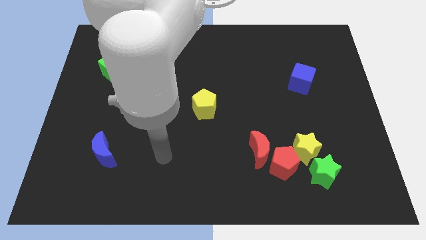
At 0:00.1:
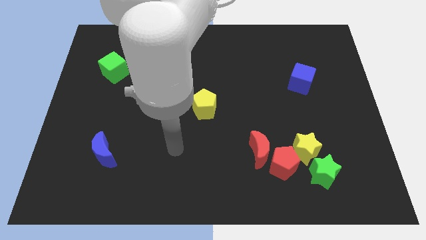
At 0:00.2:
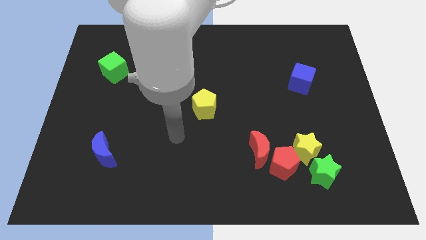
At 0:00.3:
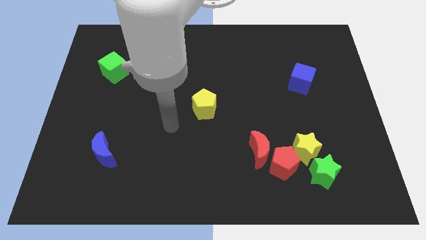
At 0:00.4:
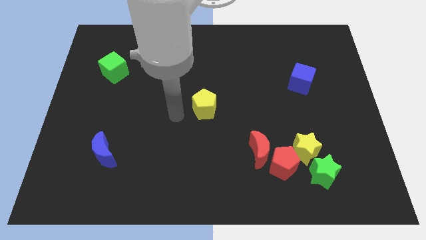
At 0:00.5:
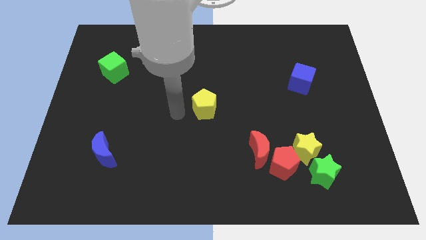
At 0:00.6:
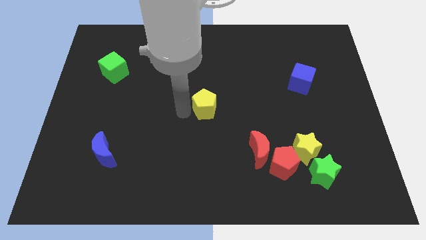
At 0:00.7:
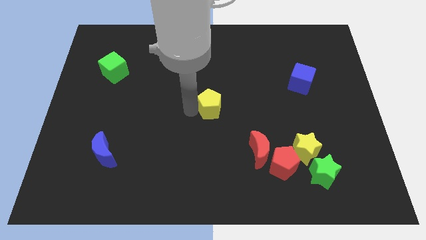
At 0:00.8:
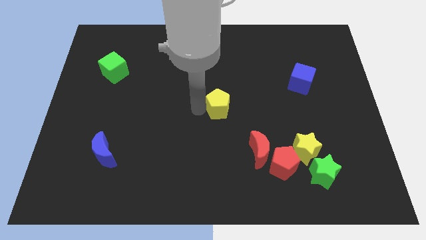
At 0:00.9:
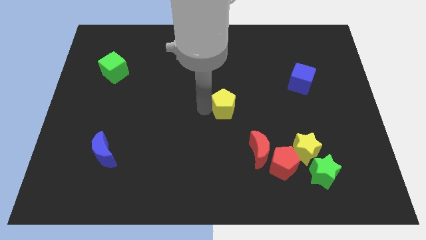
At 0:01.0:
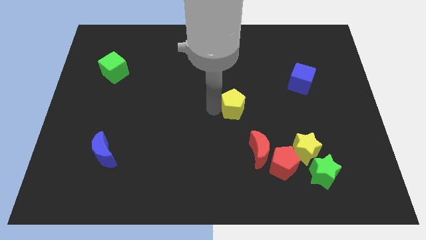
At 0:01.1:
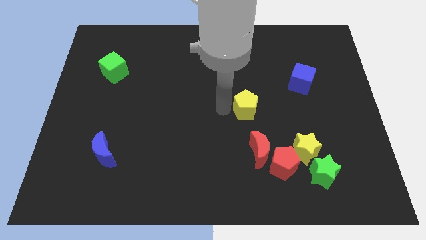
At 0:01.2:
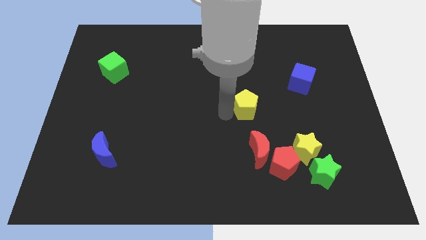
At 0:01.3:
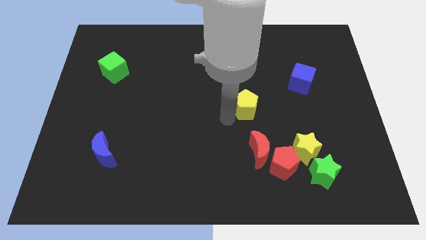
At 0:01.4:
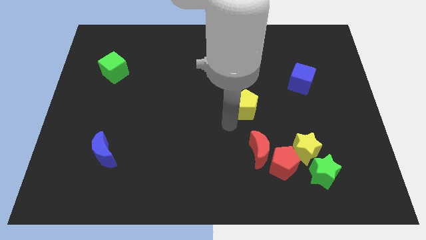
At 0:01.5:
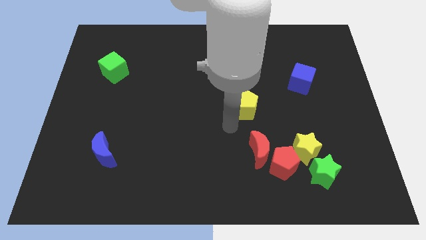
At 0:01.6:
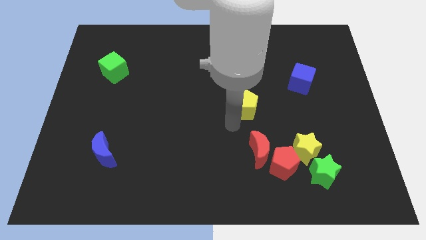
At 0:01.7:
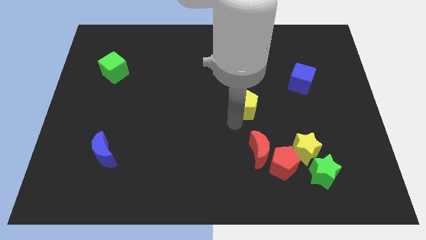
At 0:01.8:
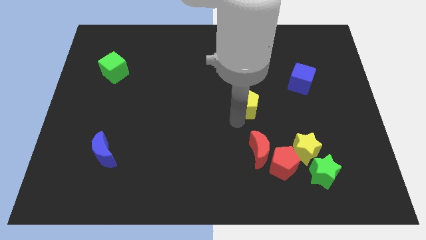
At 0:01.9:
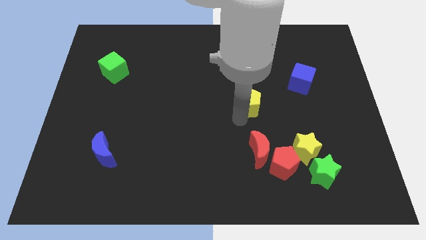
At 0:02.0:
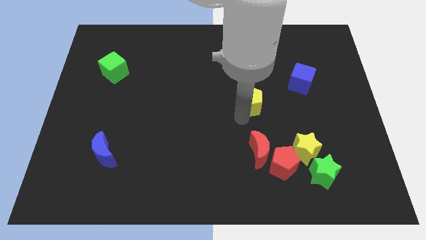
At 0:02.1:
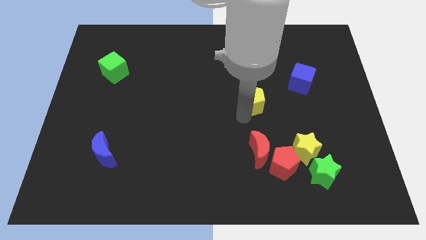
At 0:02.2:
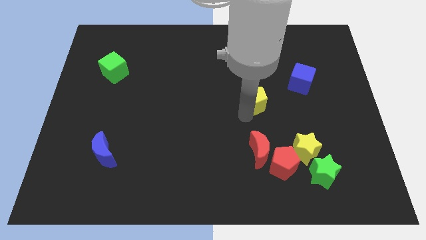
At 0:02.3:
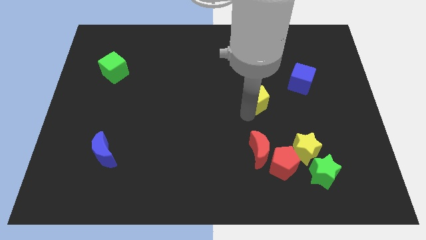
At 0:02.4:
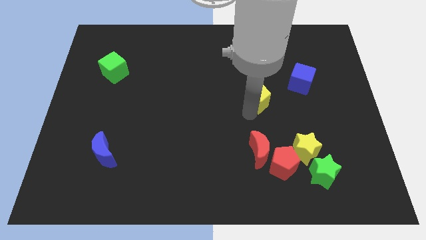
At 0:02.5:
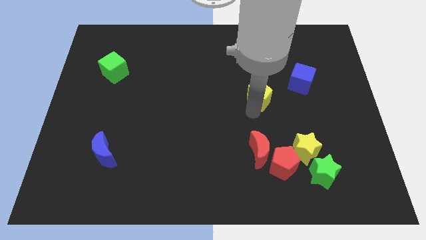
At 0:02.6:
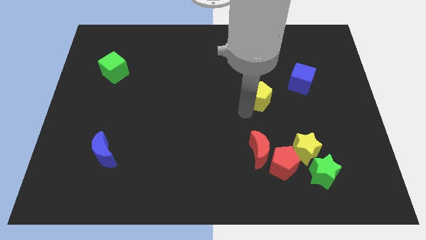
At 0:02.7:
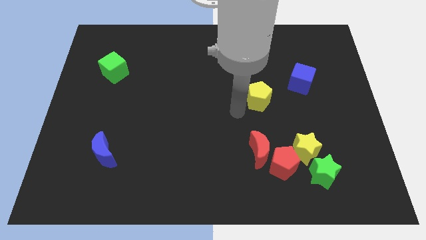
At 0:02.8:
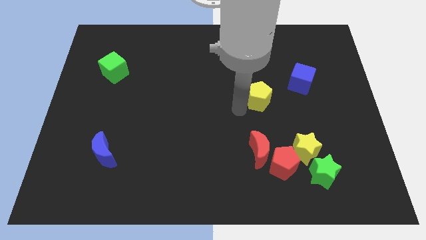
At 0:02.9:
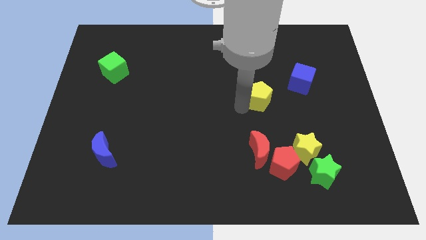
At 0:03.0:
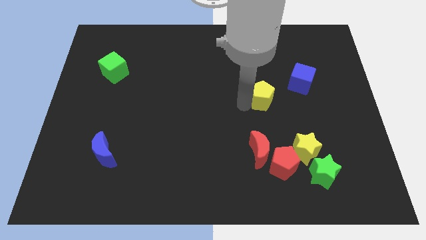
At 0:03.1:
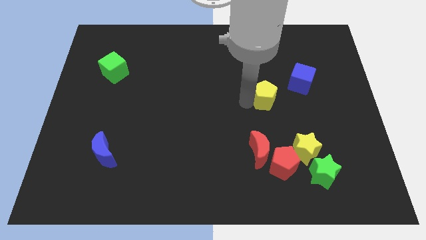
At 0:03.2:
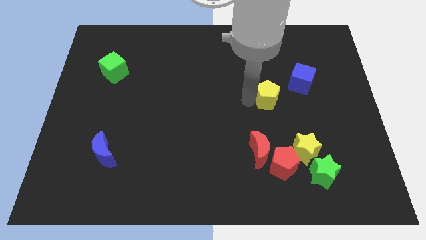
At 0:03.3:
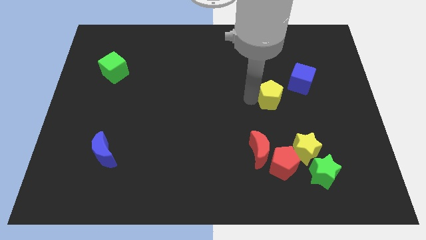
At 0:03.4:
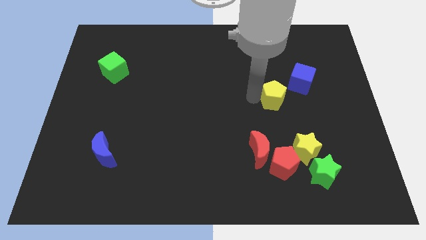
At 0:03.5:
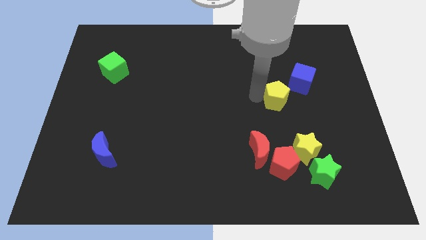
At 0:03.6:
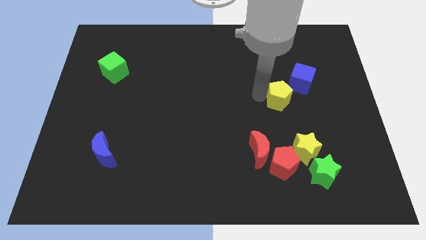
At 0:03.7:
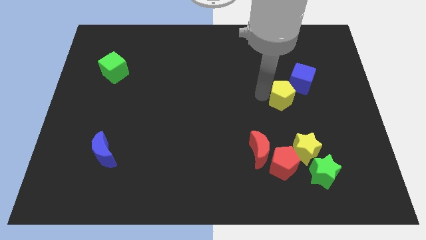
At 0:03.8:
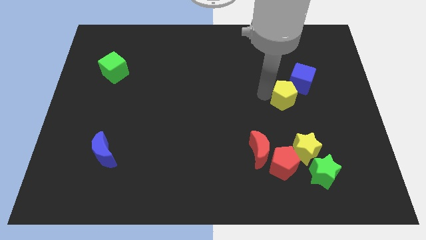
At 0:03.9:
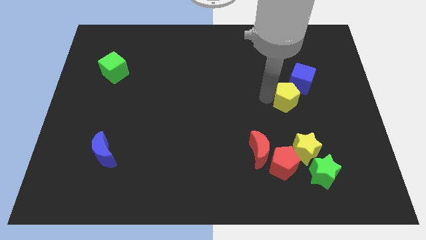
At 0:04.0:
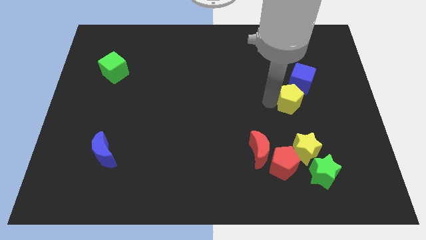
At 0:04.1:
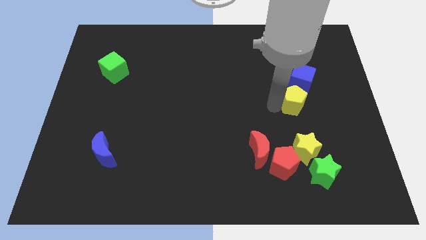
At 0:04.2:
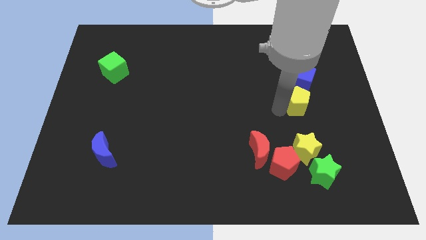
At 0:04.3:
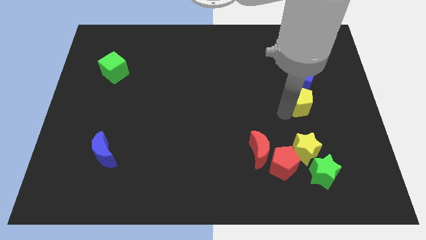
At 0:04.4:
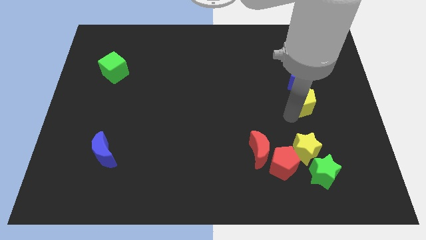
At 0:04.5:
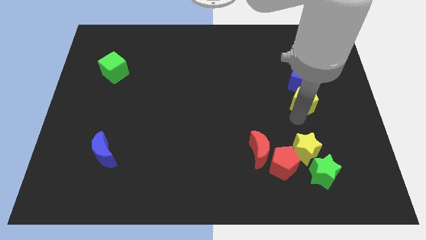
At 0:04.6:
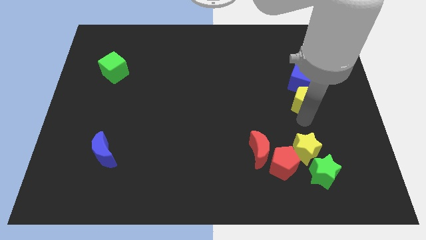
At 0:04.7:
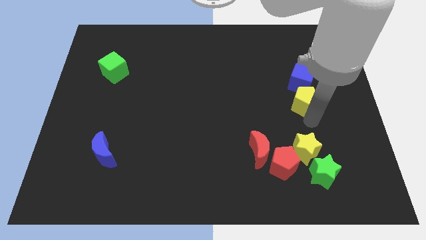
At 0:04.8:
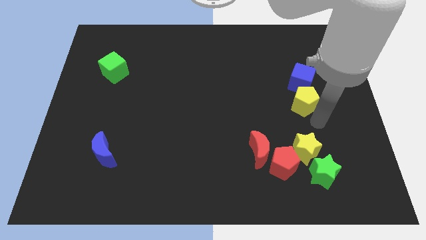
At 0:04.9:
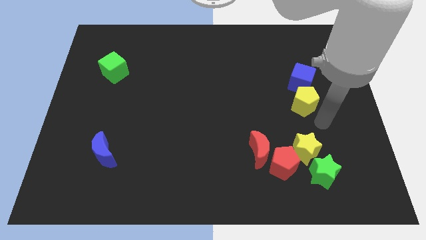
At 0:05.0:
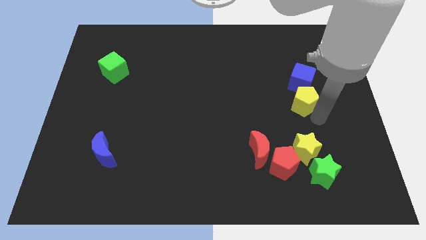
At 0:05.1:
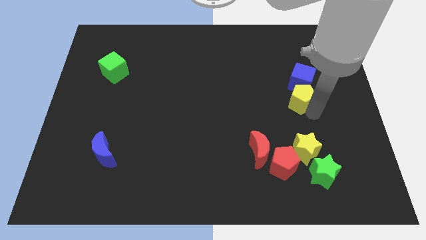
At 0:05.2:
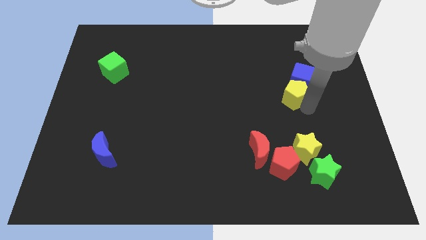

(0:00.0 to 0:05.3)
slide the yellow pentagon to the blue cube

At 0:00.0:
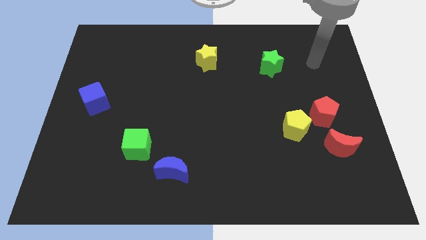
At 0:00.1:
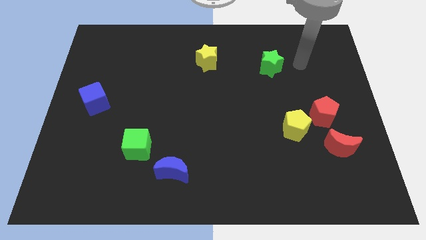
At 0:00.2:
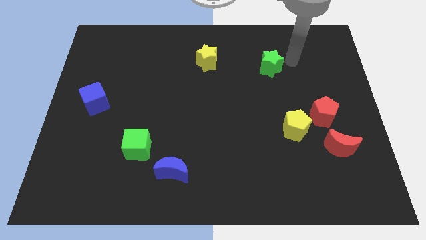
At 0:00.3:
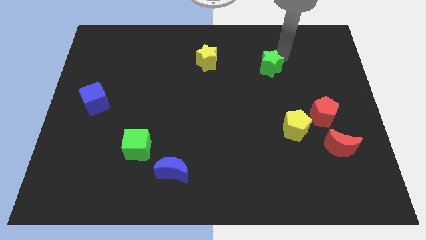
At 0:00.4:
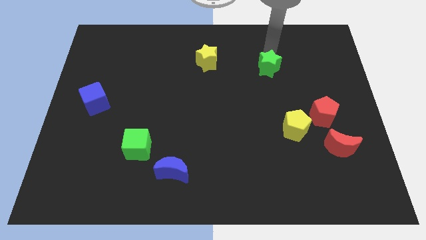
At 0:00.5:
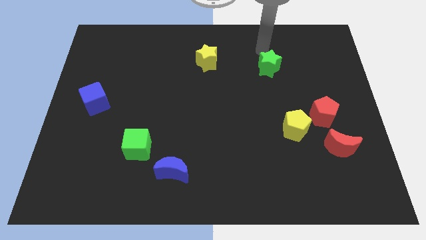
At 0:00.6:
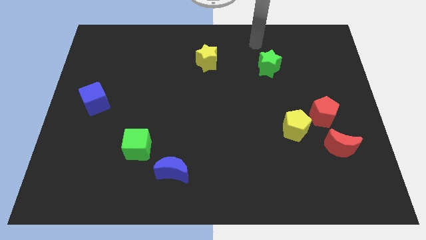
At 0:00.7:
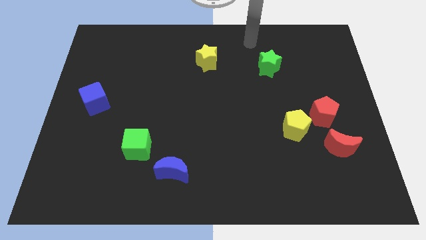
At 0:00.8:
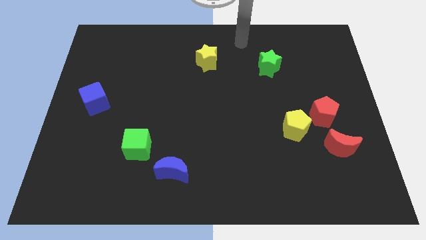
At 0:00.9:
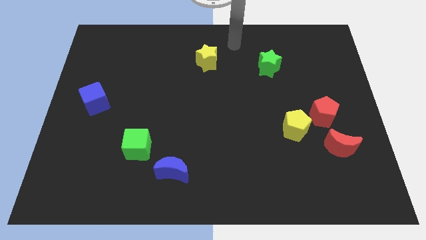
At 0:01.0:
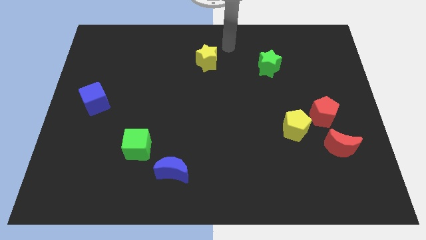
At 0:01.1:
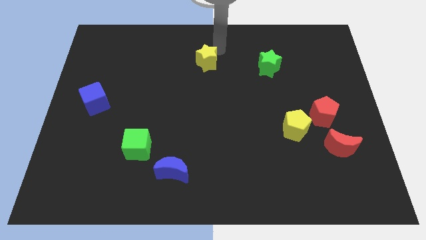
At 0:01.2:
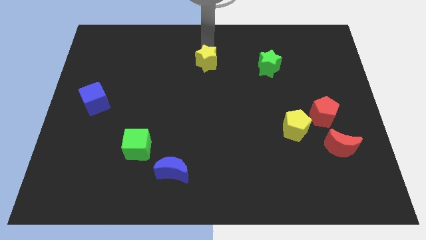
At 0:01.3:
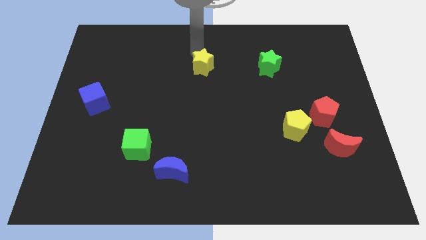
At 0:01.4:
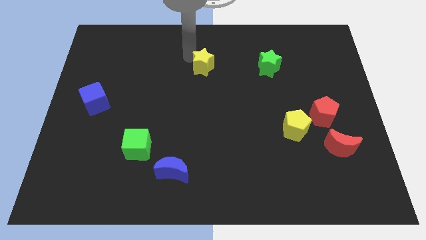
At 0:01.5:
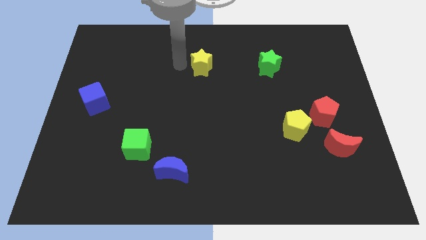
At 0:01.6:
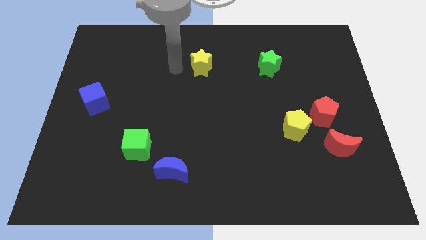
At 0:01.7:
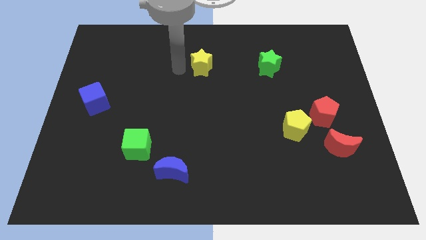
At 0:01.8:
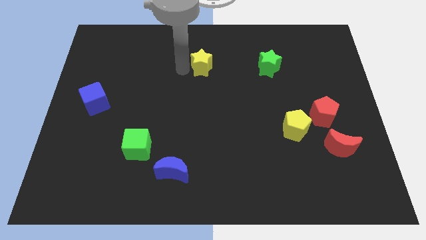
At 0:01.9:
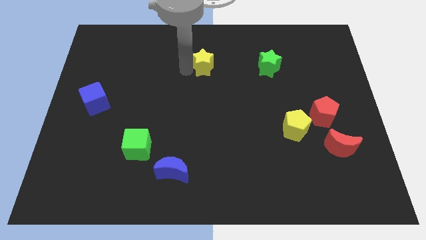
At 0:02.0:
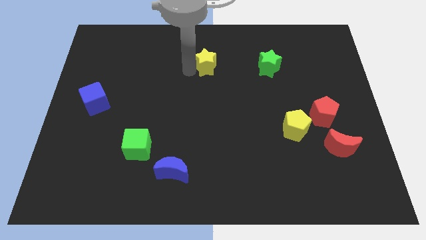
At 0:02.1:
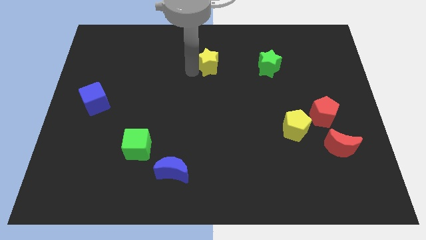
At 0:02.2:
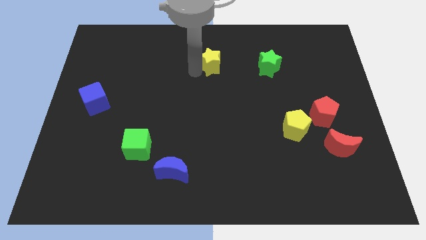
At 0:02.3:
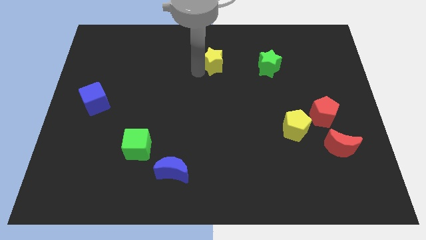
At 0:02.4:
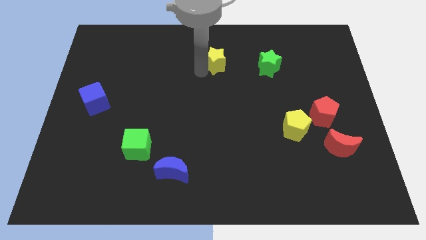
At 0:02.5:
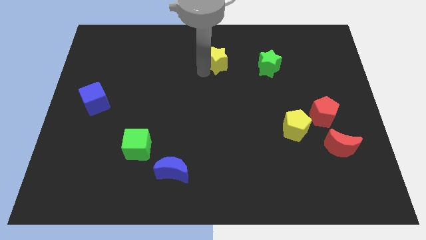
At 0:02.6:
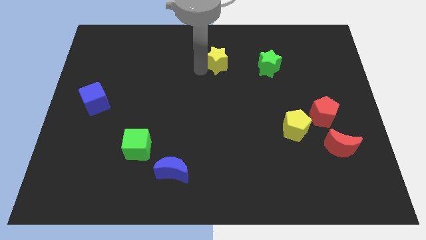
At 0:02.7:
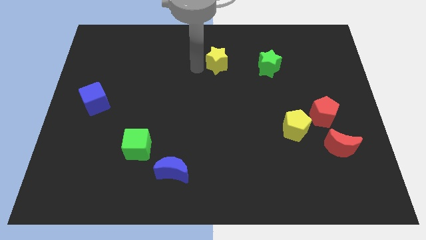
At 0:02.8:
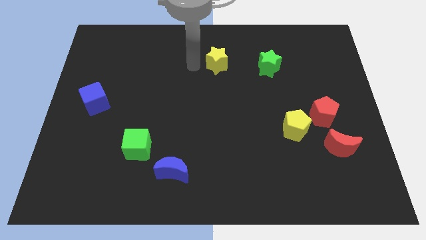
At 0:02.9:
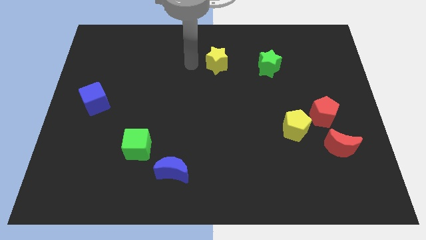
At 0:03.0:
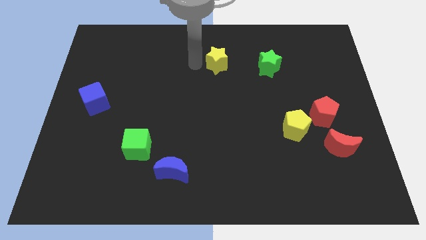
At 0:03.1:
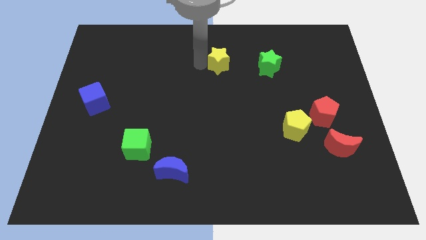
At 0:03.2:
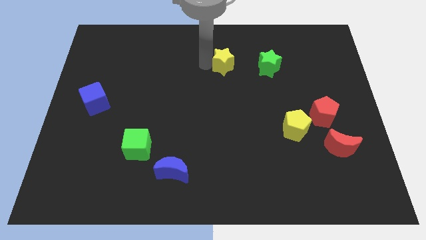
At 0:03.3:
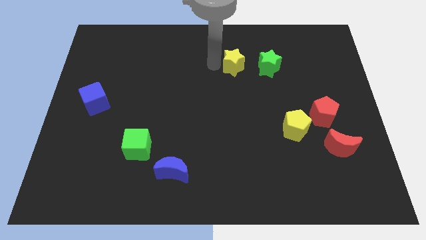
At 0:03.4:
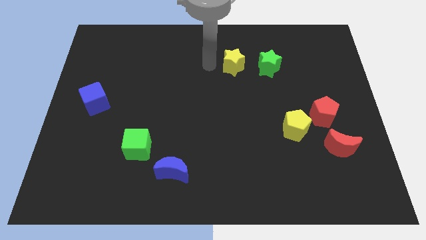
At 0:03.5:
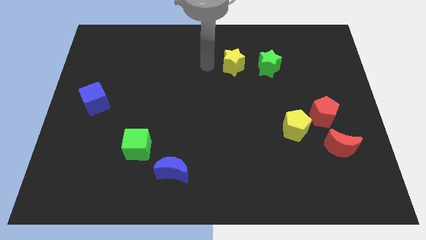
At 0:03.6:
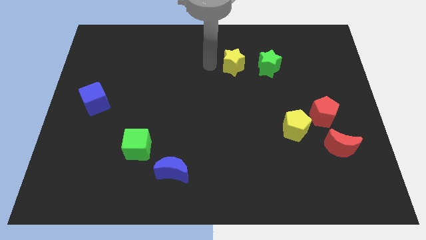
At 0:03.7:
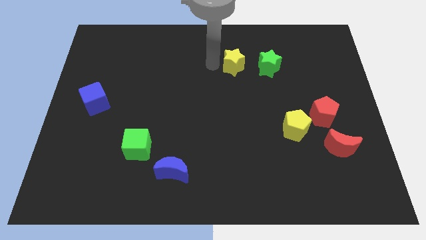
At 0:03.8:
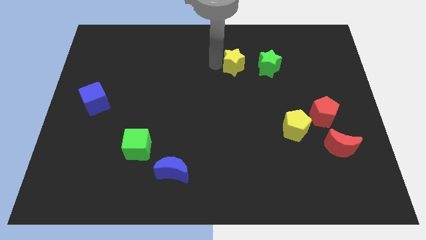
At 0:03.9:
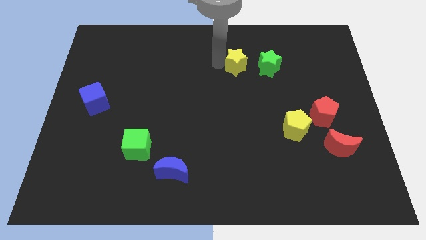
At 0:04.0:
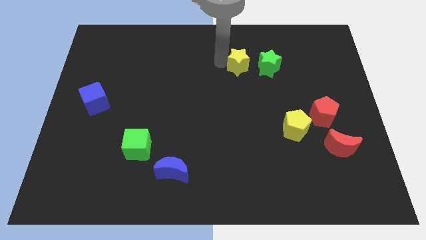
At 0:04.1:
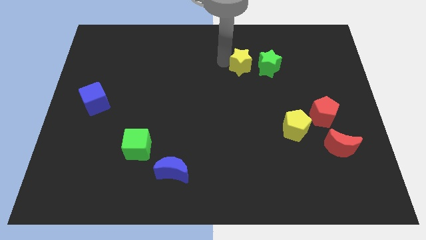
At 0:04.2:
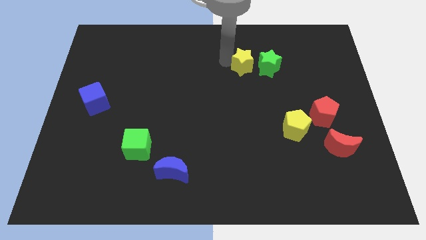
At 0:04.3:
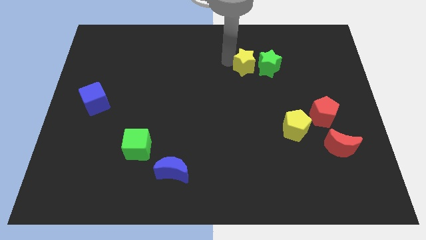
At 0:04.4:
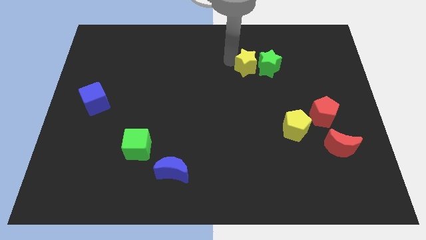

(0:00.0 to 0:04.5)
move the yellow star close to the green star
